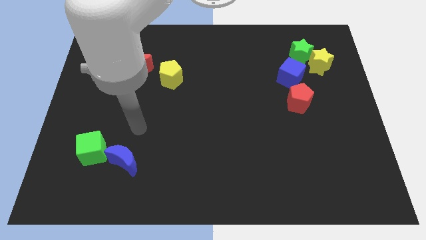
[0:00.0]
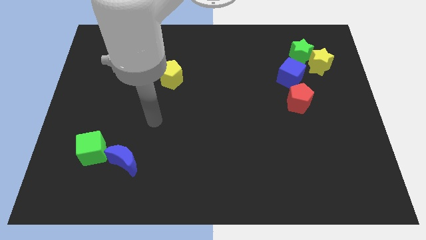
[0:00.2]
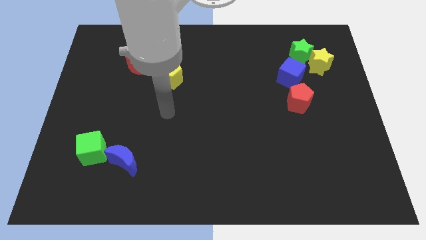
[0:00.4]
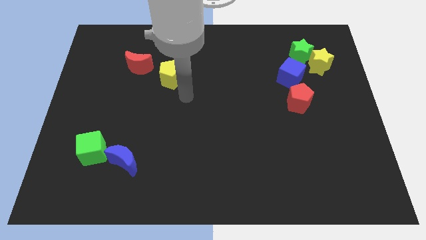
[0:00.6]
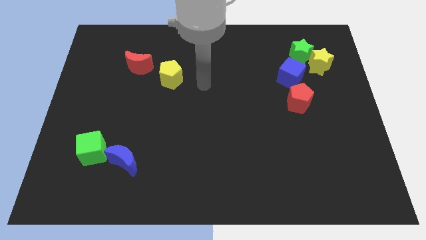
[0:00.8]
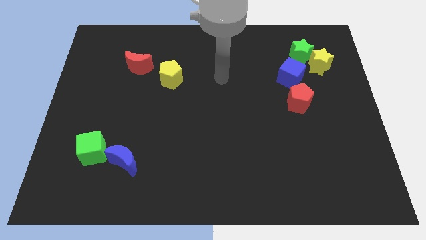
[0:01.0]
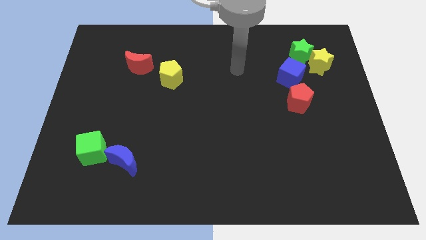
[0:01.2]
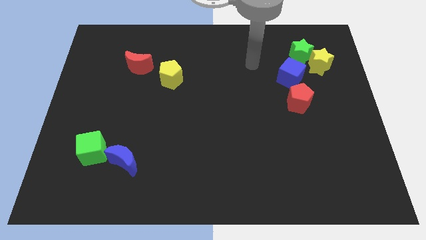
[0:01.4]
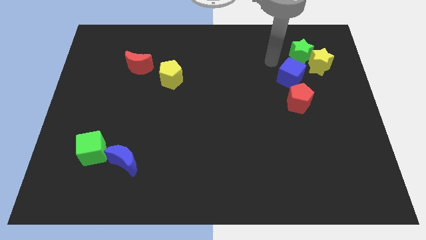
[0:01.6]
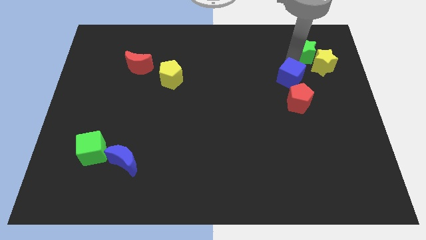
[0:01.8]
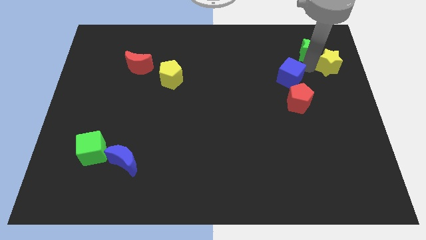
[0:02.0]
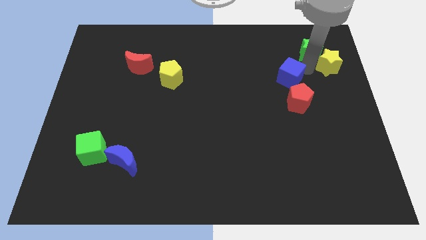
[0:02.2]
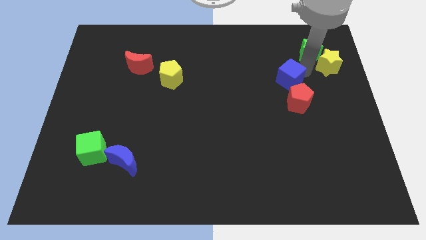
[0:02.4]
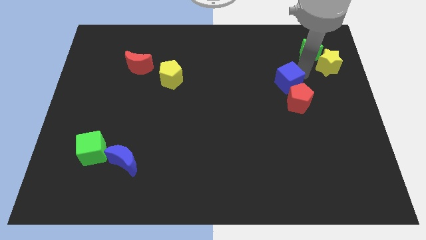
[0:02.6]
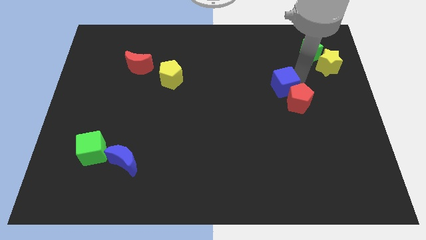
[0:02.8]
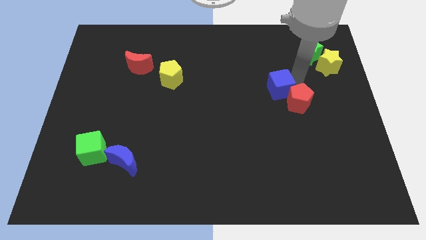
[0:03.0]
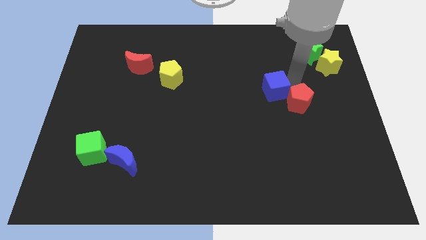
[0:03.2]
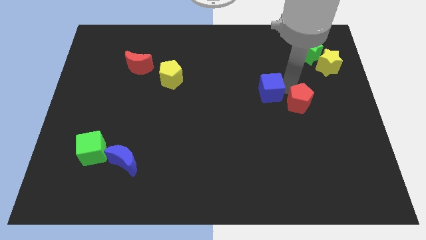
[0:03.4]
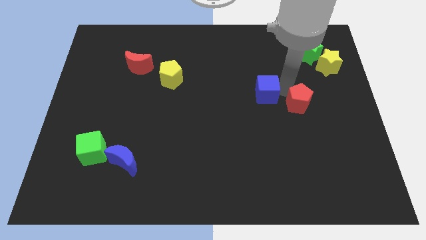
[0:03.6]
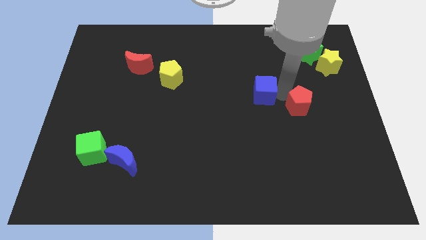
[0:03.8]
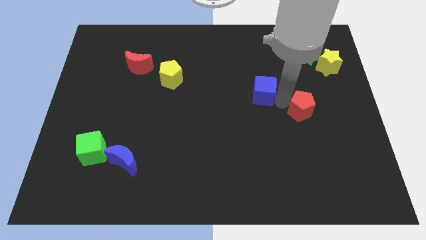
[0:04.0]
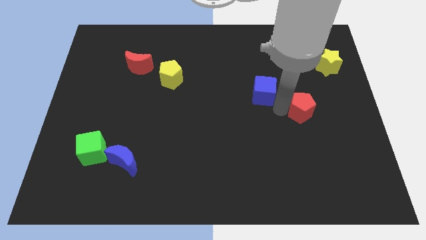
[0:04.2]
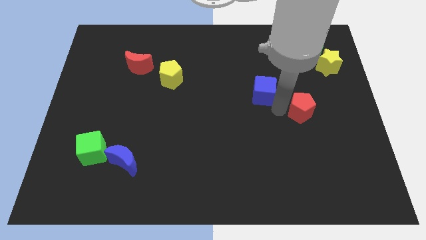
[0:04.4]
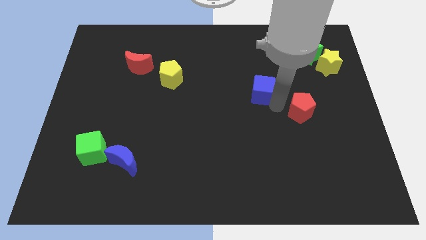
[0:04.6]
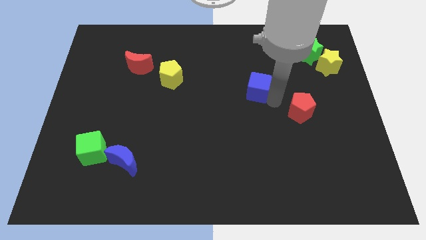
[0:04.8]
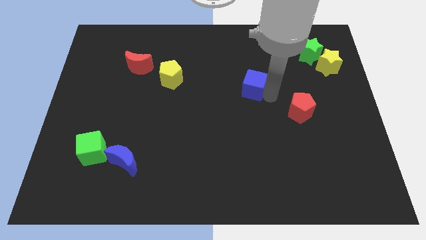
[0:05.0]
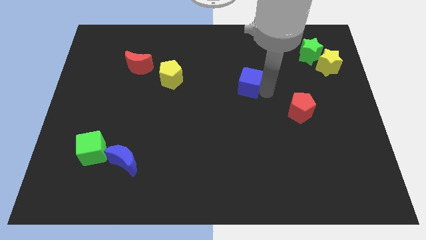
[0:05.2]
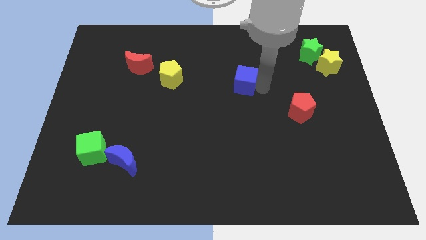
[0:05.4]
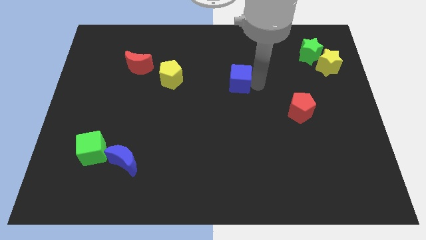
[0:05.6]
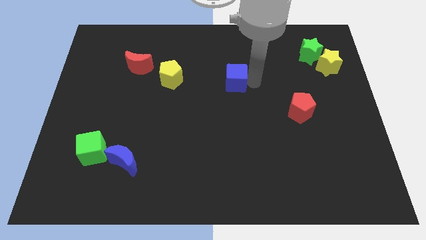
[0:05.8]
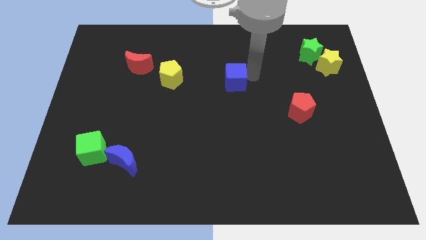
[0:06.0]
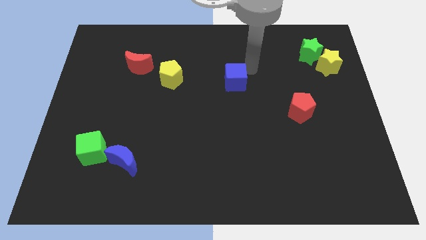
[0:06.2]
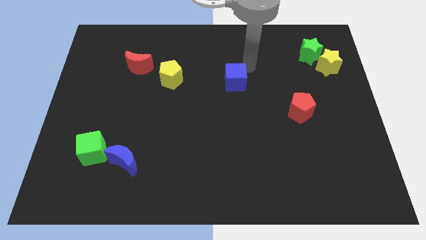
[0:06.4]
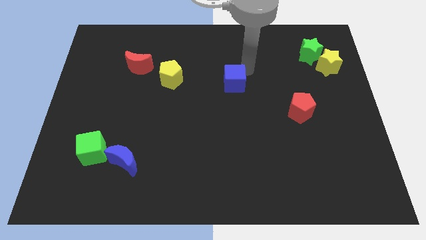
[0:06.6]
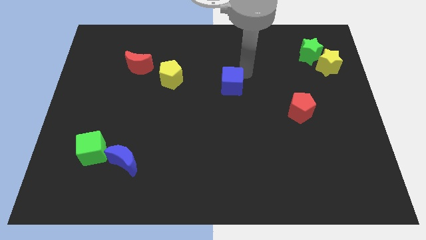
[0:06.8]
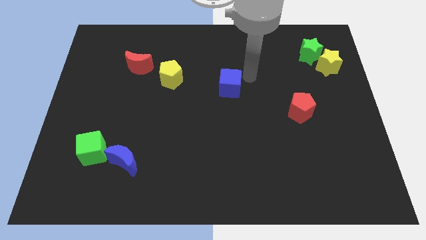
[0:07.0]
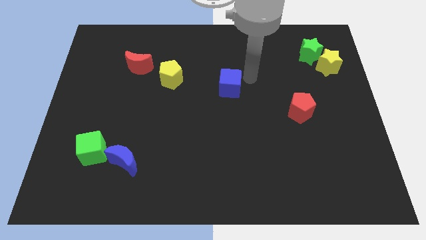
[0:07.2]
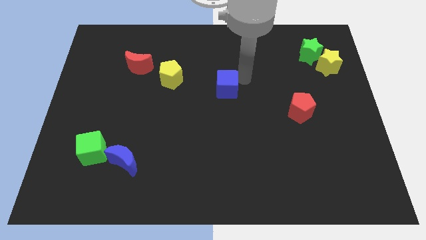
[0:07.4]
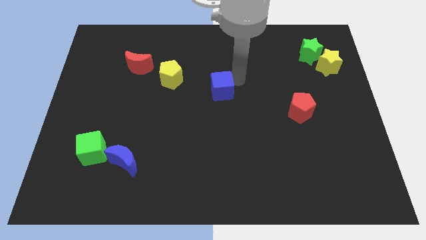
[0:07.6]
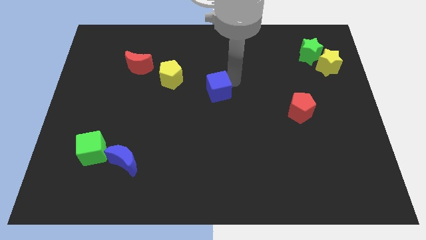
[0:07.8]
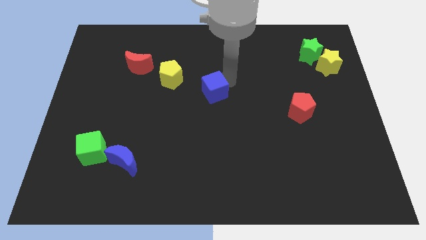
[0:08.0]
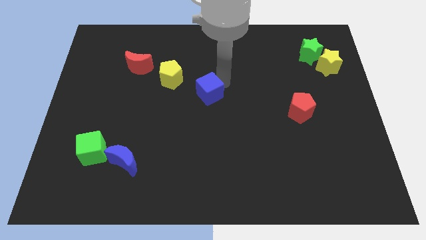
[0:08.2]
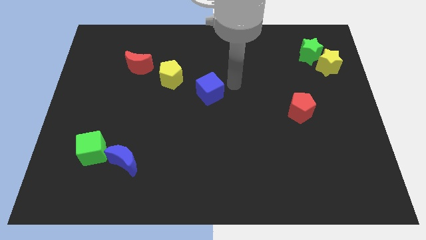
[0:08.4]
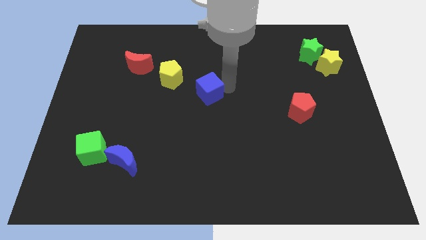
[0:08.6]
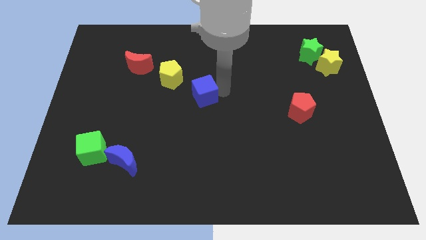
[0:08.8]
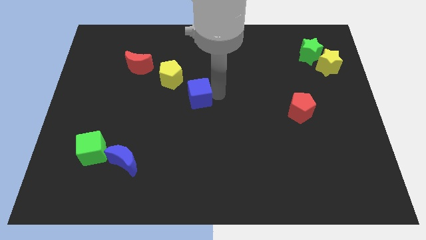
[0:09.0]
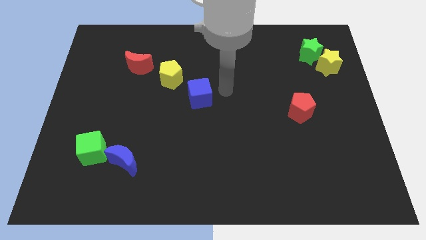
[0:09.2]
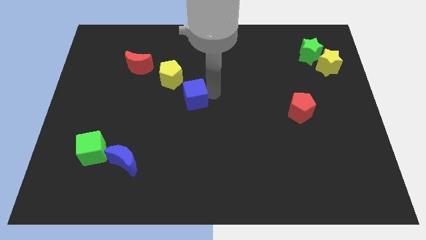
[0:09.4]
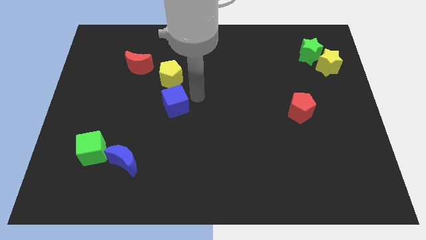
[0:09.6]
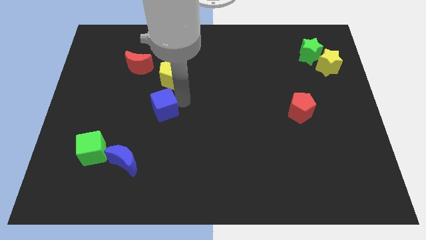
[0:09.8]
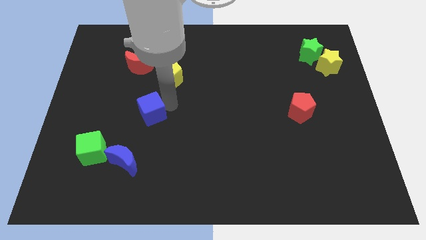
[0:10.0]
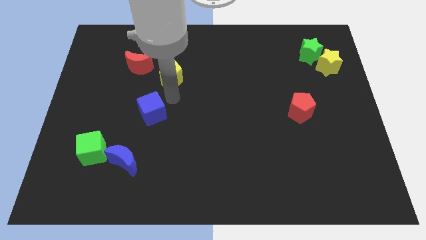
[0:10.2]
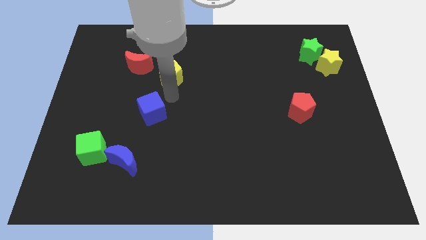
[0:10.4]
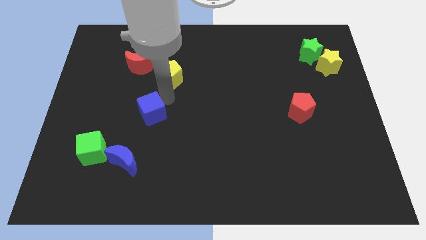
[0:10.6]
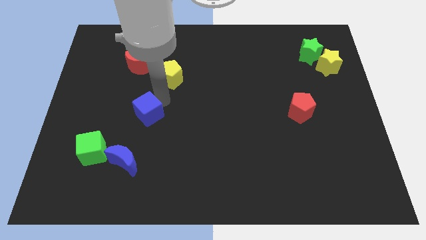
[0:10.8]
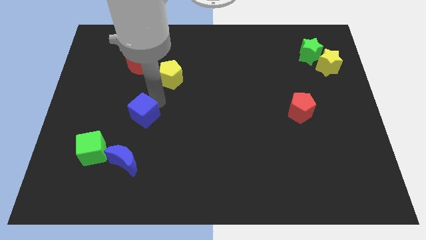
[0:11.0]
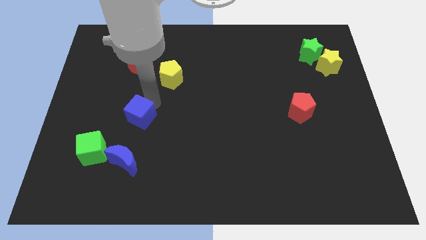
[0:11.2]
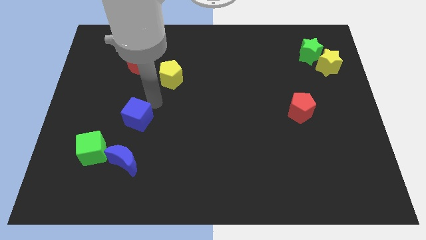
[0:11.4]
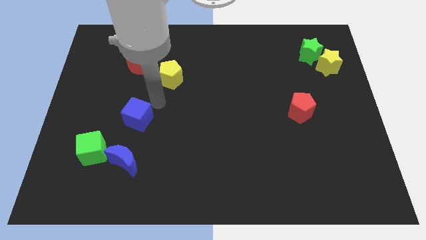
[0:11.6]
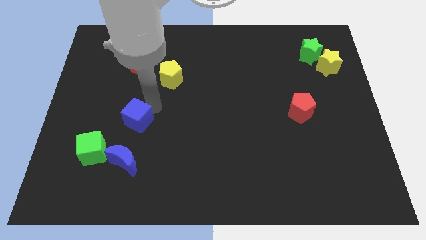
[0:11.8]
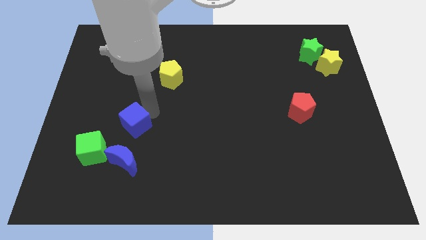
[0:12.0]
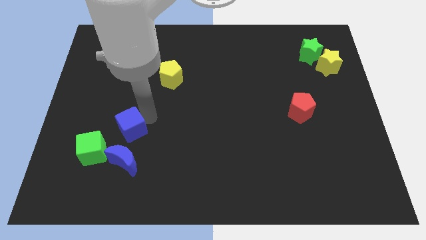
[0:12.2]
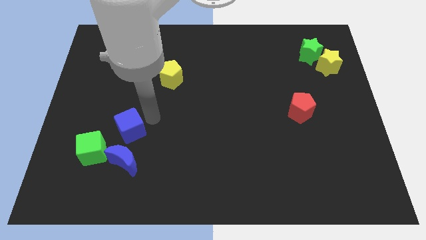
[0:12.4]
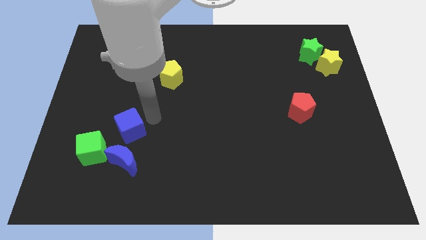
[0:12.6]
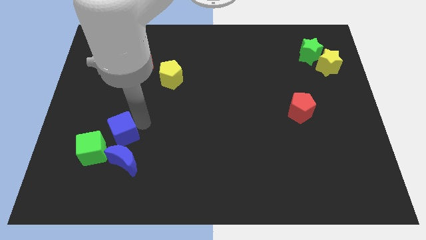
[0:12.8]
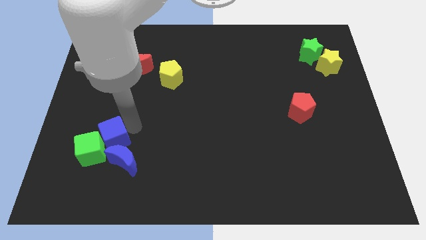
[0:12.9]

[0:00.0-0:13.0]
slide the blue cube towards the green cube
